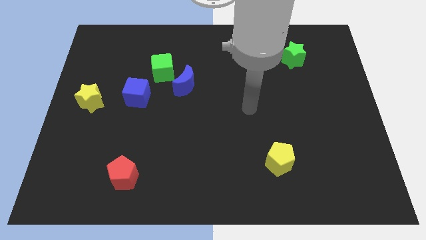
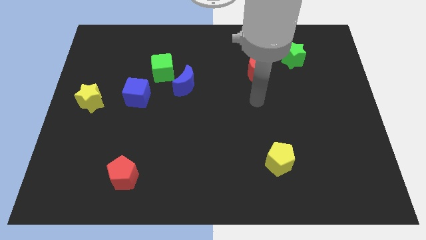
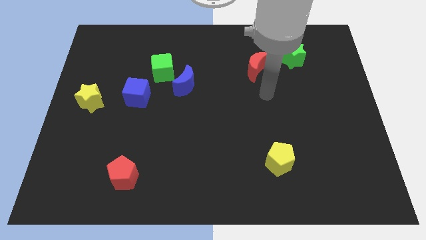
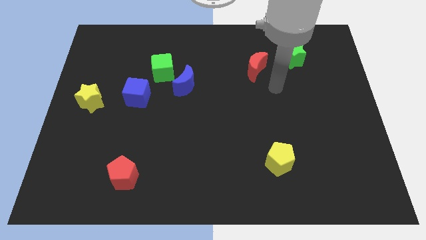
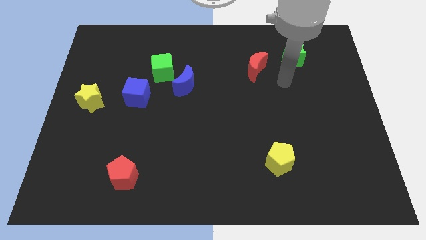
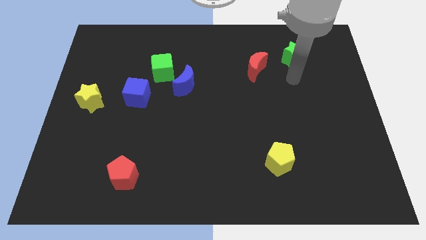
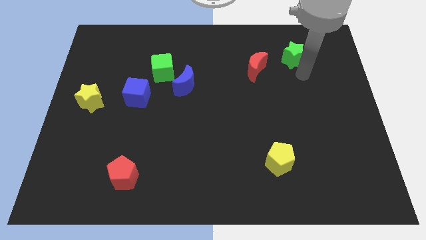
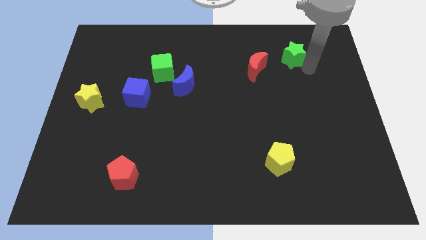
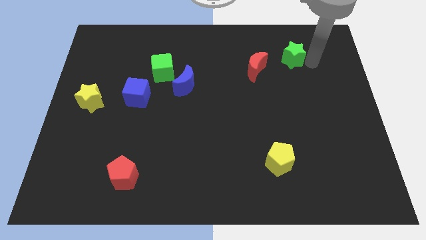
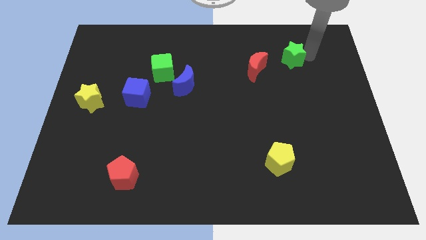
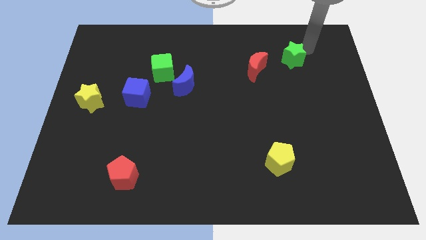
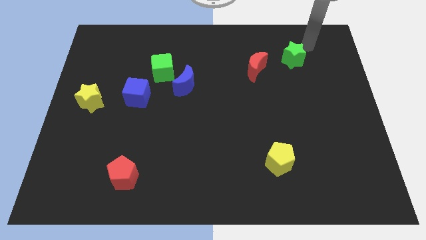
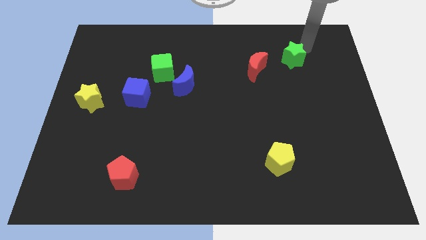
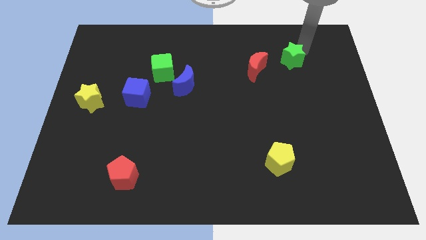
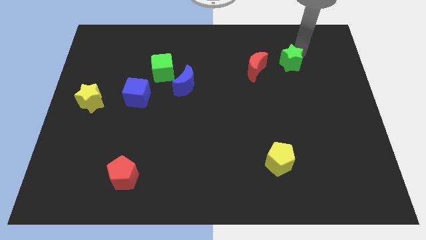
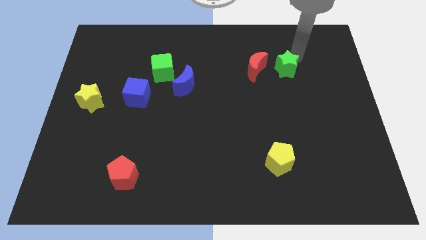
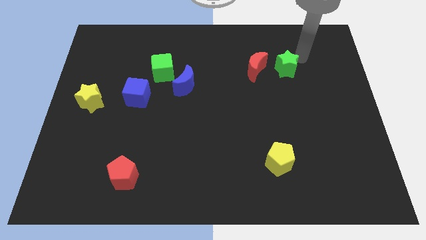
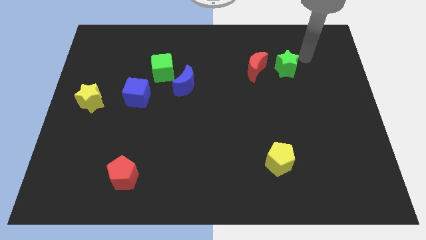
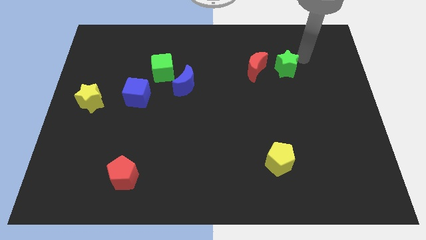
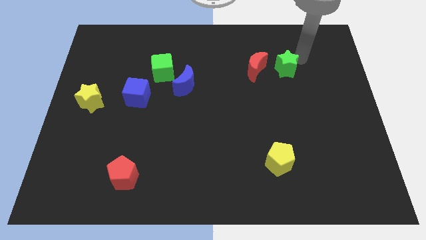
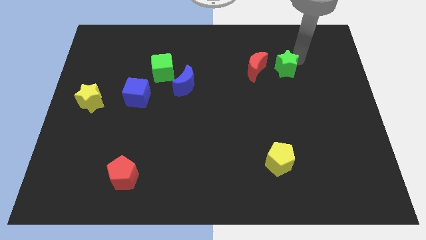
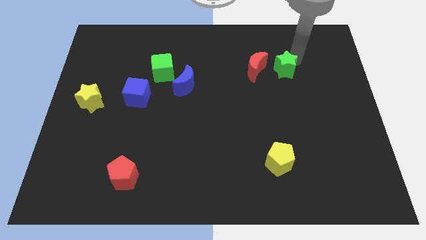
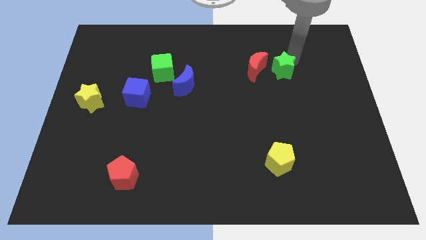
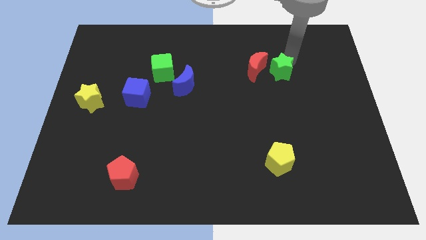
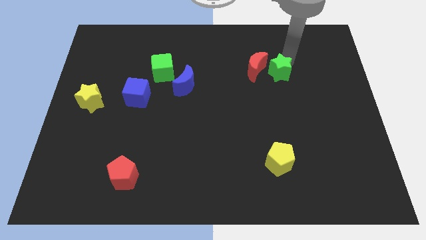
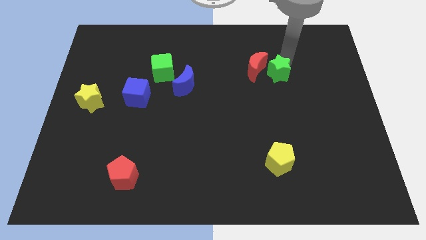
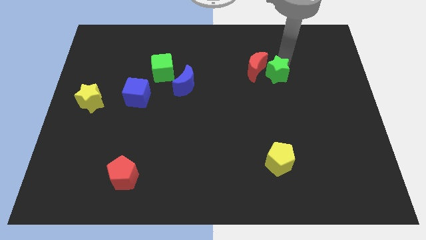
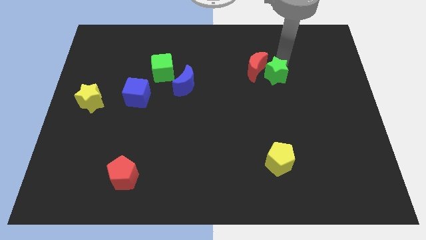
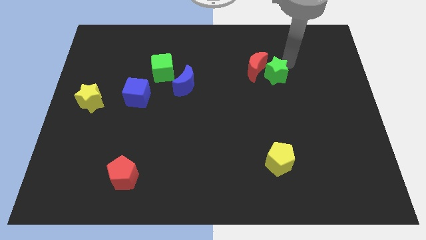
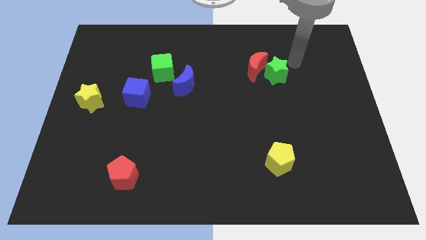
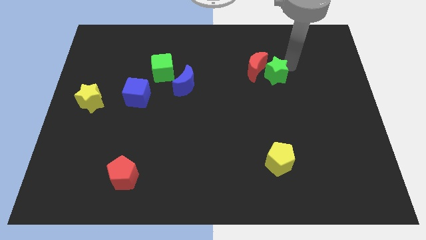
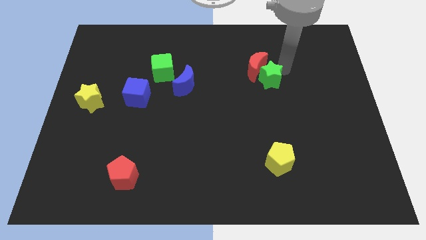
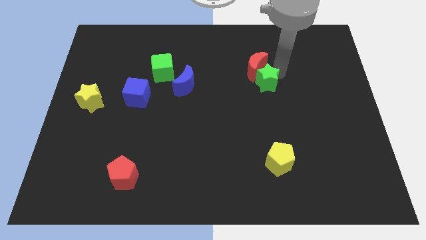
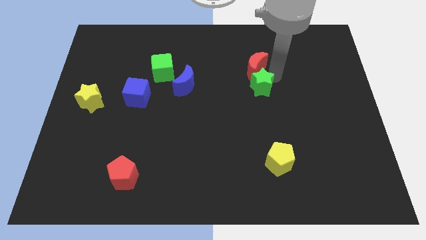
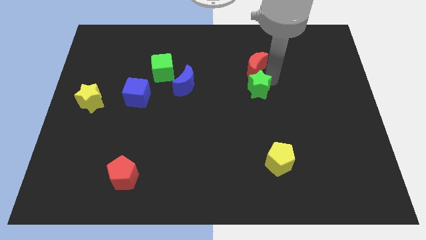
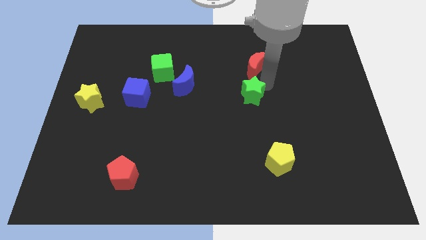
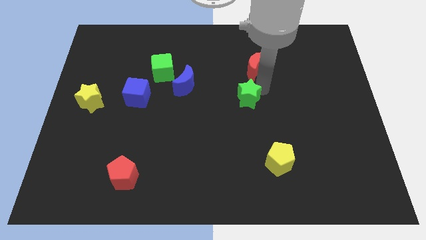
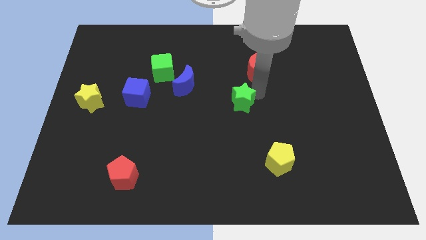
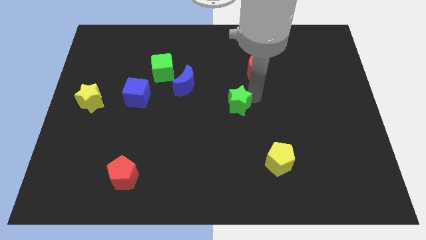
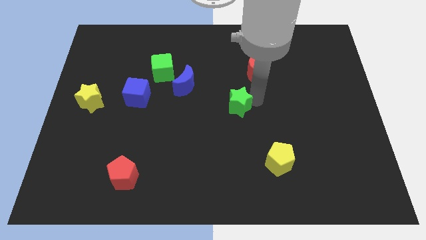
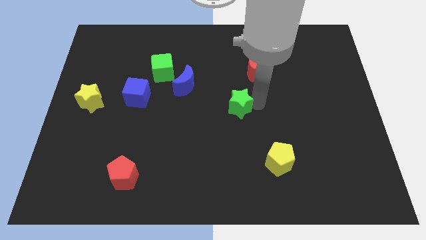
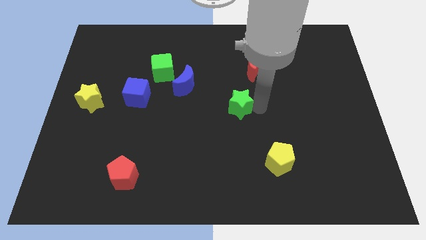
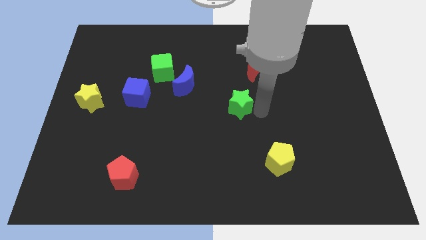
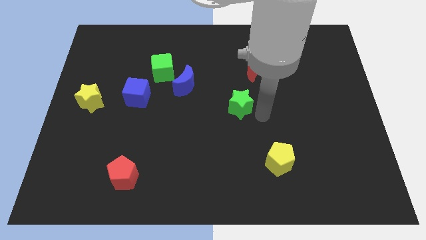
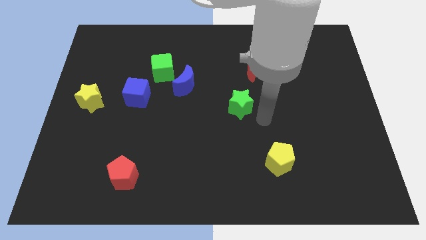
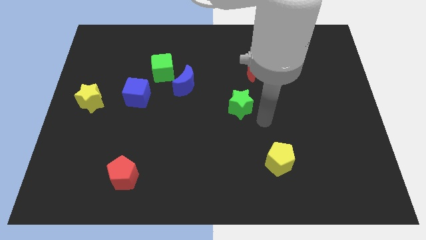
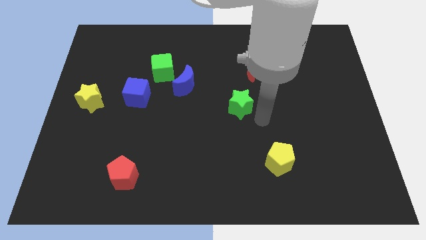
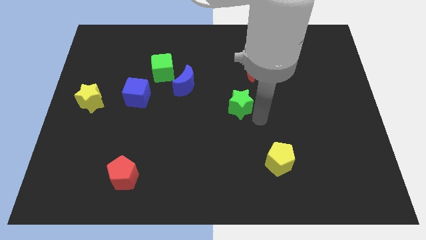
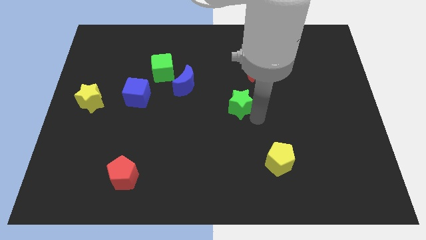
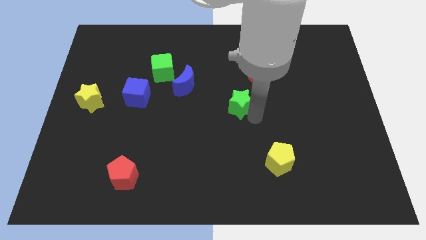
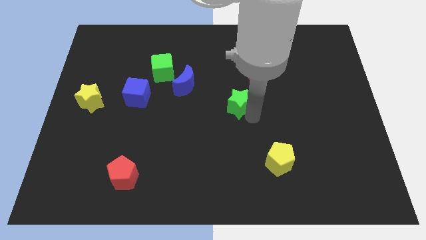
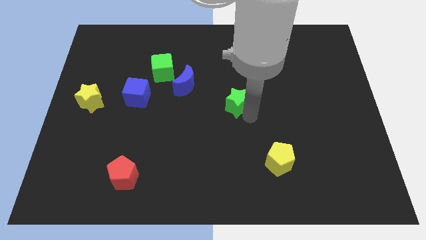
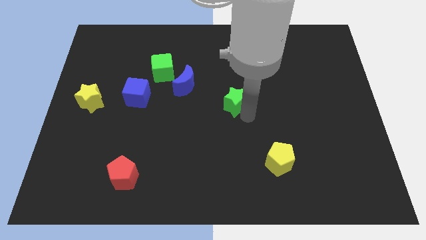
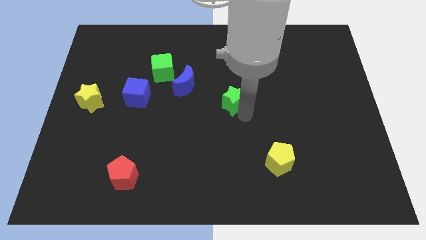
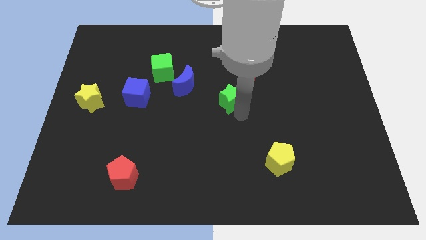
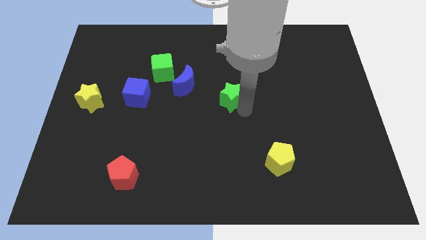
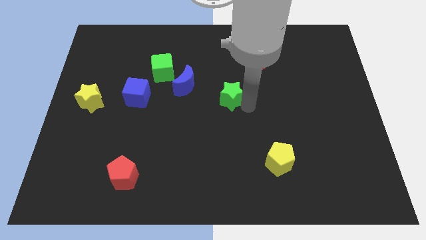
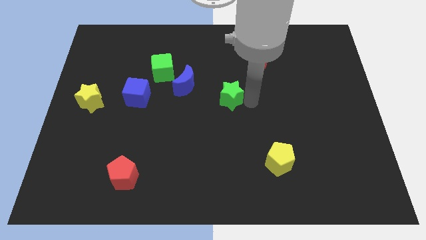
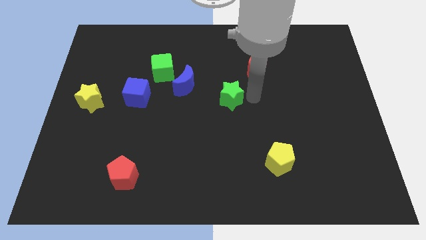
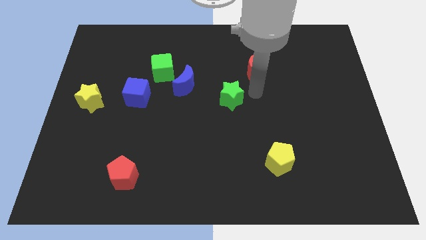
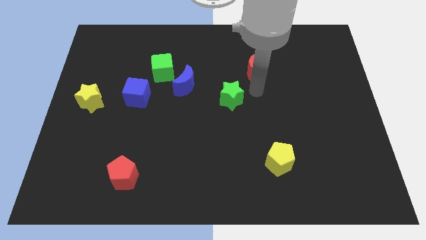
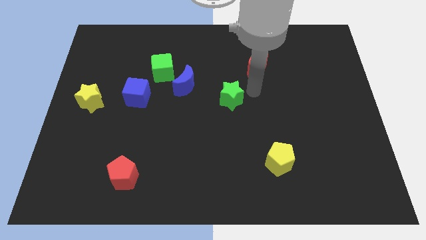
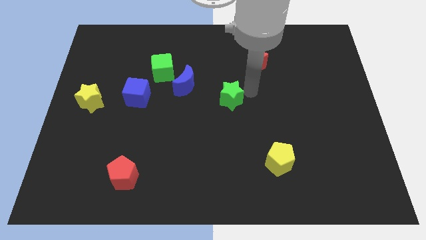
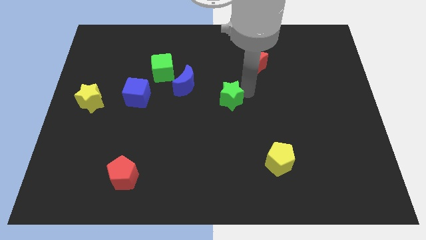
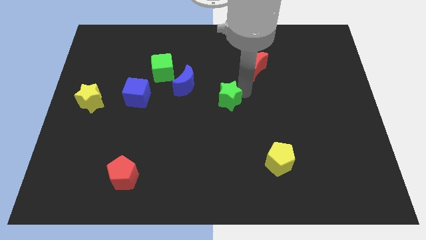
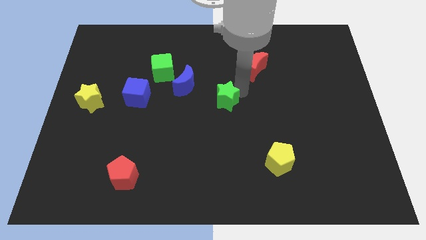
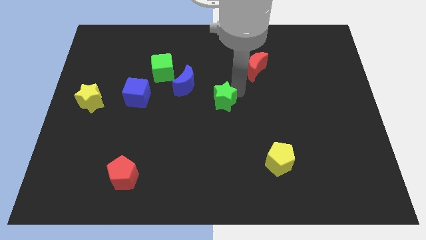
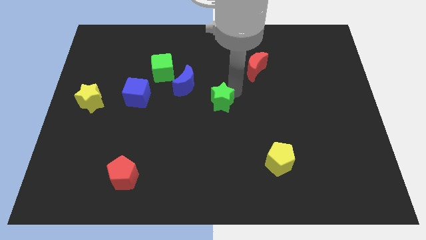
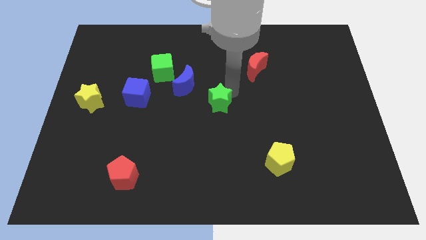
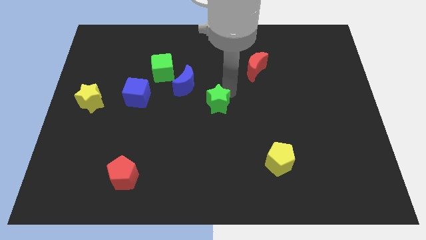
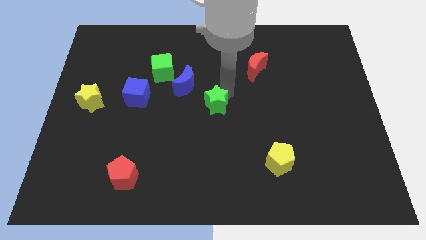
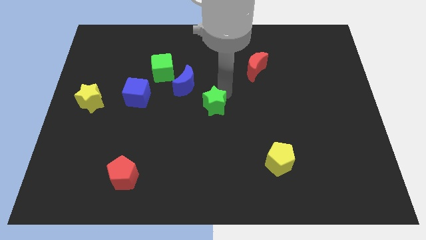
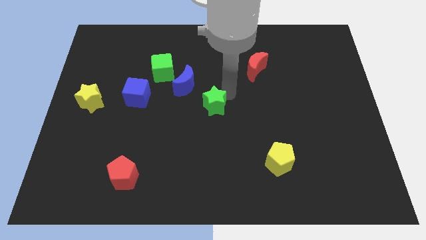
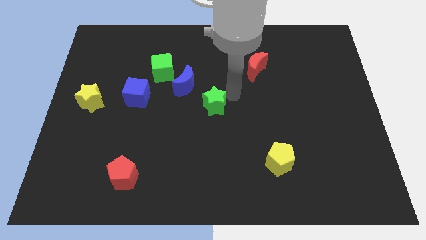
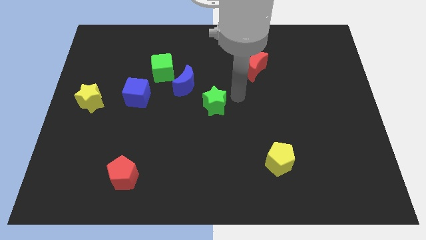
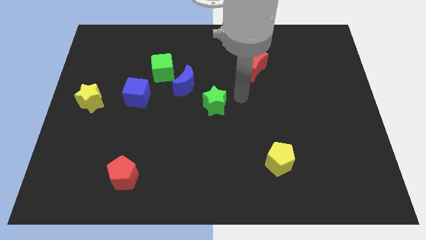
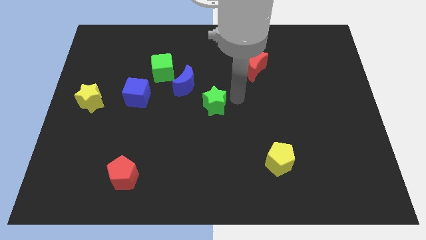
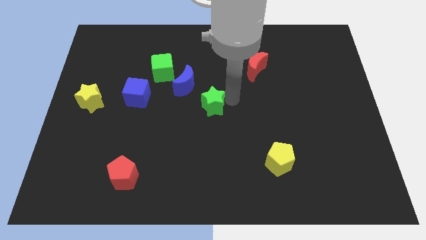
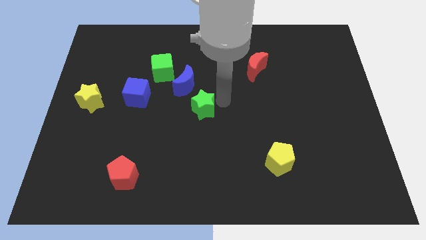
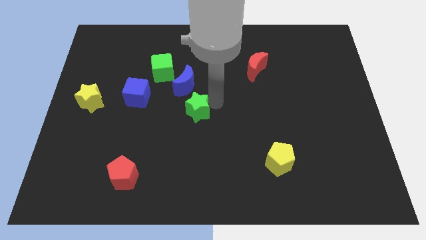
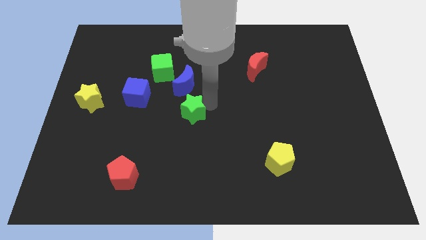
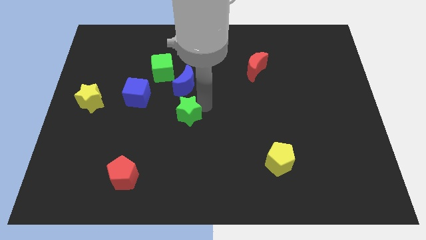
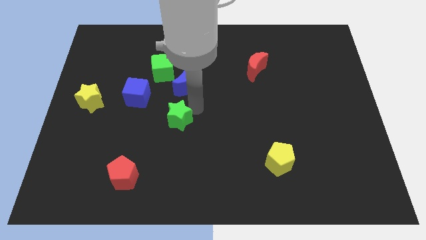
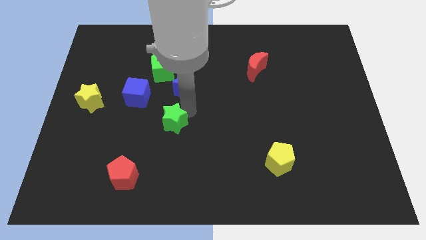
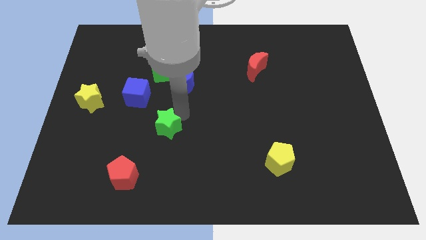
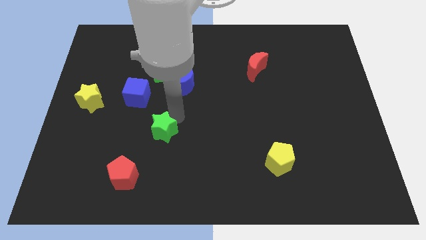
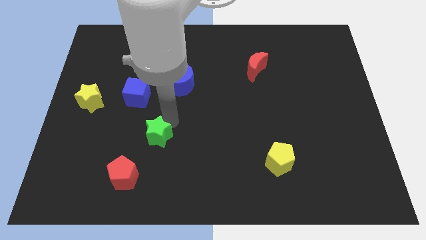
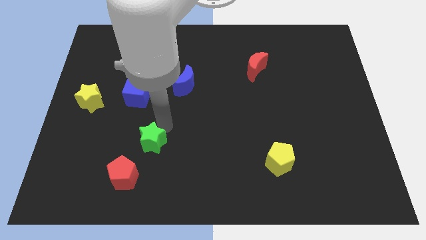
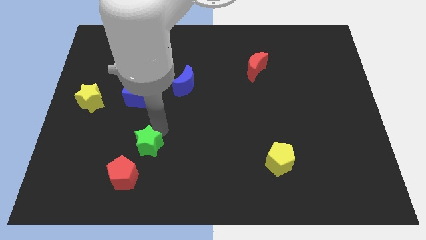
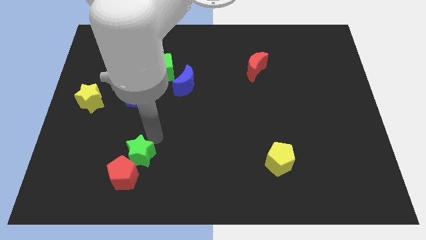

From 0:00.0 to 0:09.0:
slide the green star towards the red pentagon
